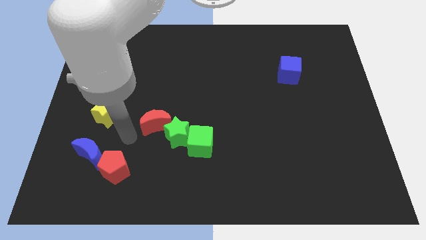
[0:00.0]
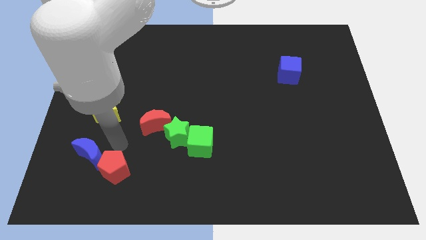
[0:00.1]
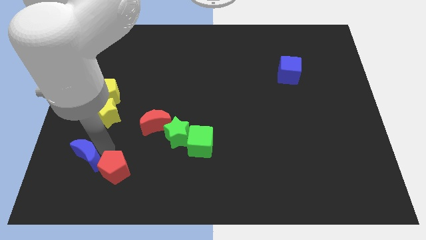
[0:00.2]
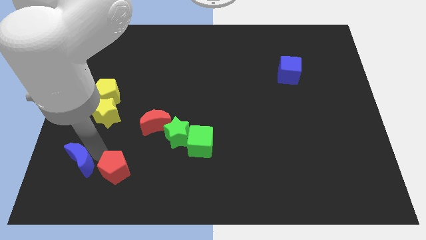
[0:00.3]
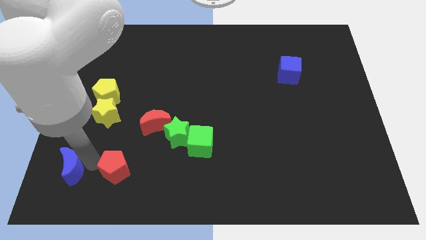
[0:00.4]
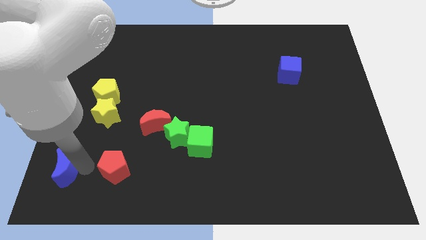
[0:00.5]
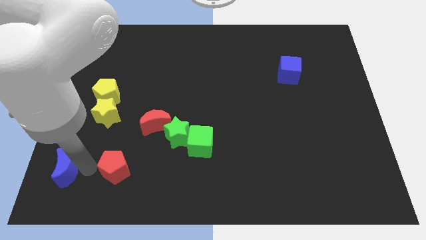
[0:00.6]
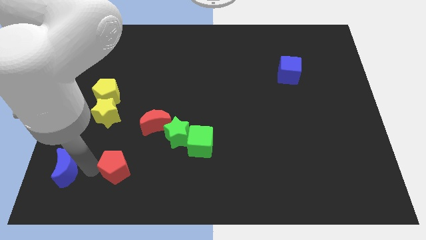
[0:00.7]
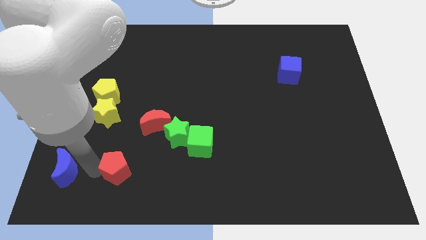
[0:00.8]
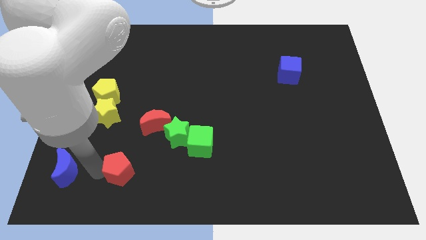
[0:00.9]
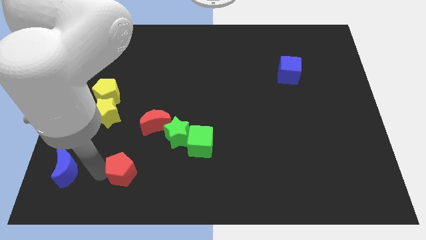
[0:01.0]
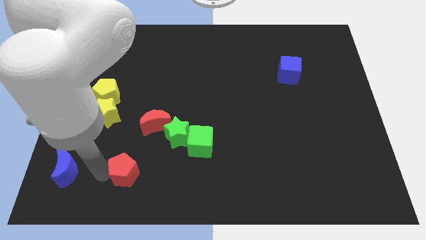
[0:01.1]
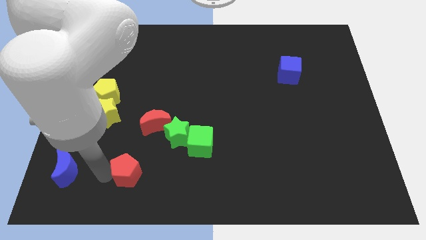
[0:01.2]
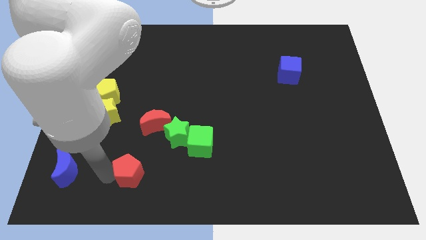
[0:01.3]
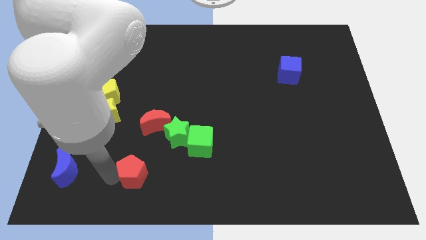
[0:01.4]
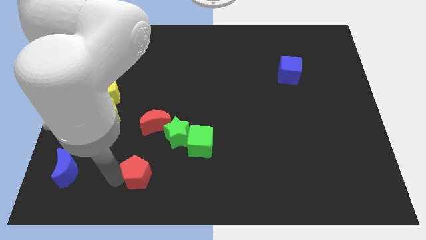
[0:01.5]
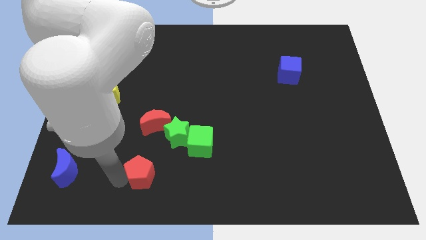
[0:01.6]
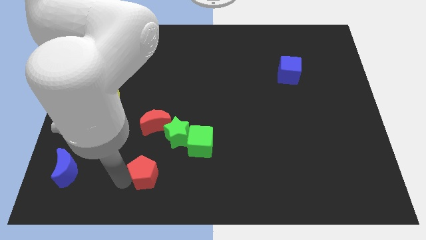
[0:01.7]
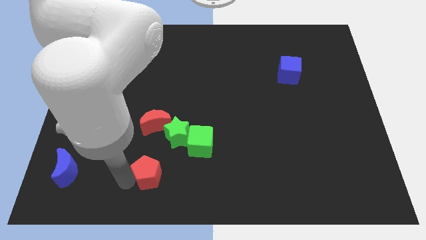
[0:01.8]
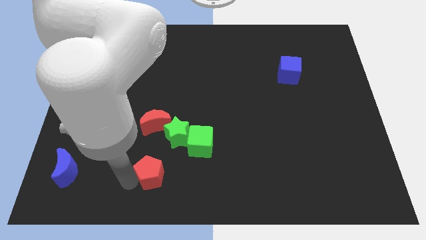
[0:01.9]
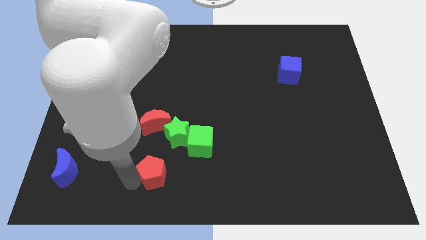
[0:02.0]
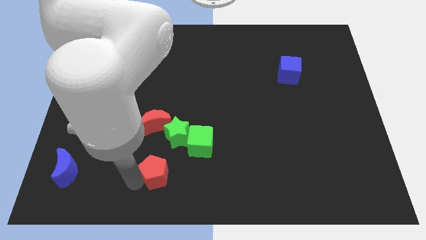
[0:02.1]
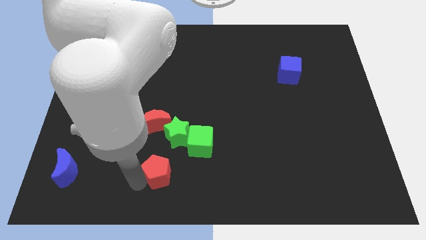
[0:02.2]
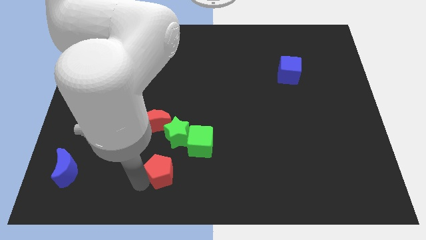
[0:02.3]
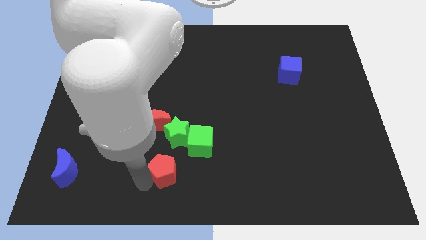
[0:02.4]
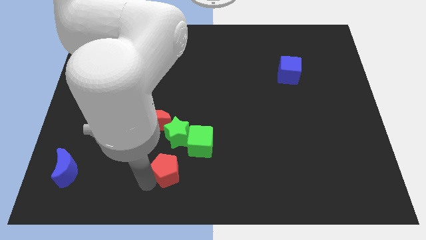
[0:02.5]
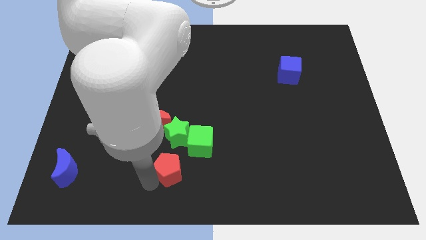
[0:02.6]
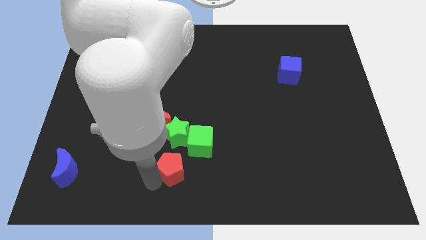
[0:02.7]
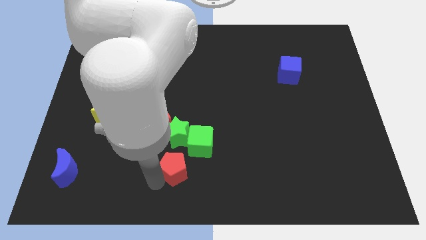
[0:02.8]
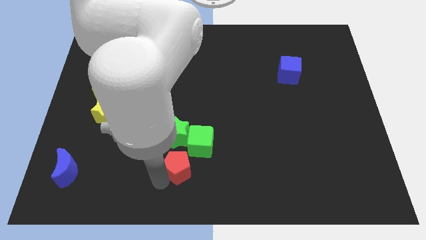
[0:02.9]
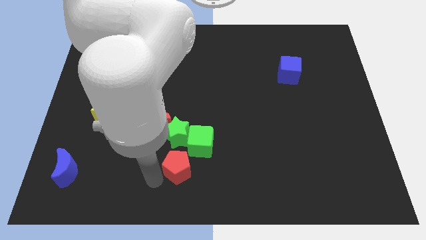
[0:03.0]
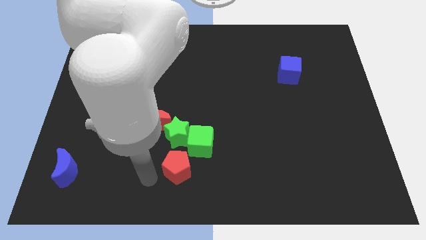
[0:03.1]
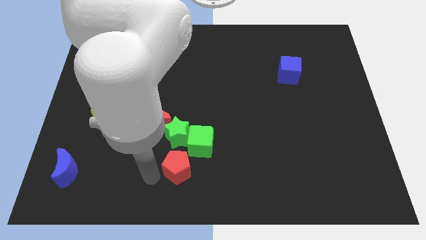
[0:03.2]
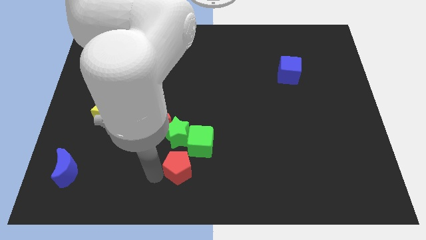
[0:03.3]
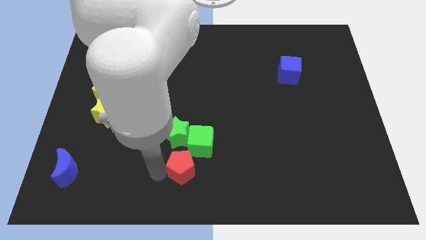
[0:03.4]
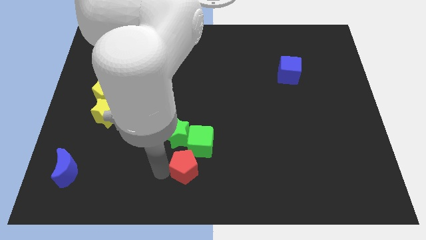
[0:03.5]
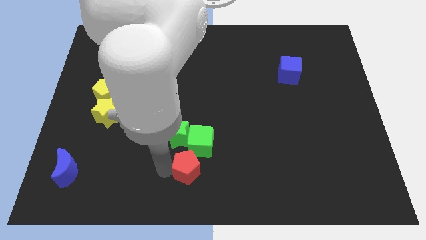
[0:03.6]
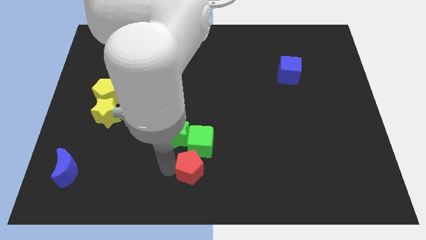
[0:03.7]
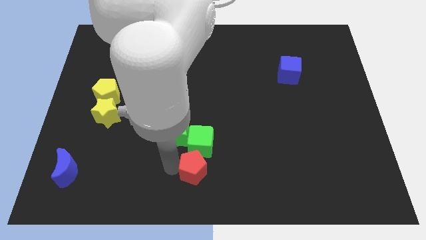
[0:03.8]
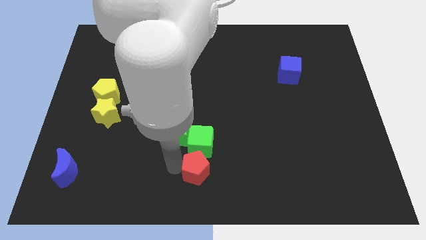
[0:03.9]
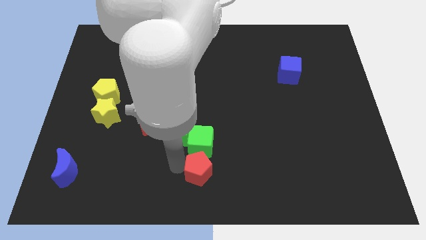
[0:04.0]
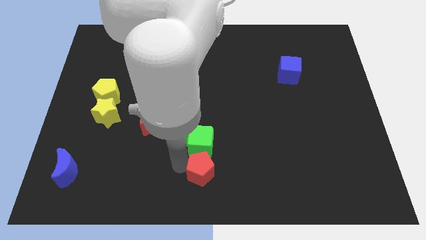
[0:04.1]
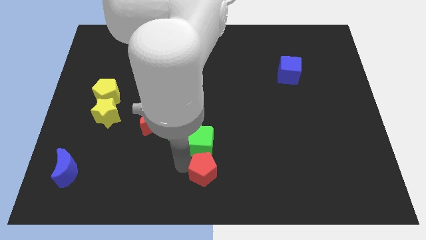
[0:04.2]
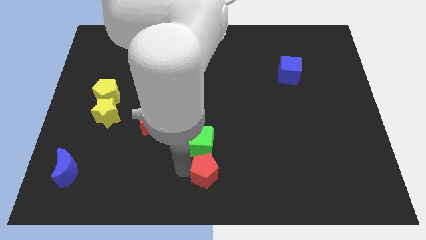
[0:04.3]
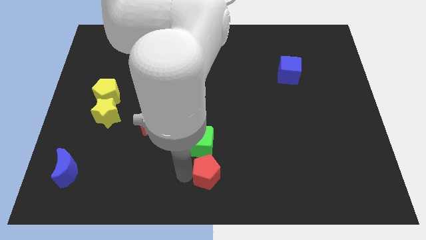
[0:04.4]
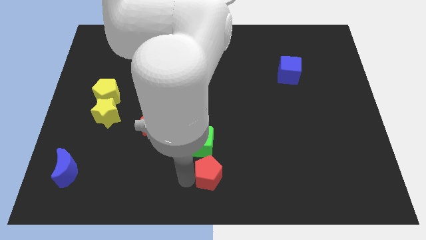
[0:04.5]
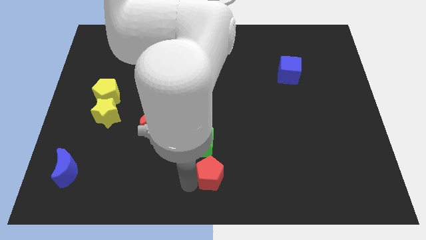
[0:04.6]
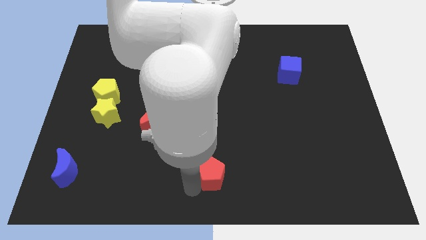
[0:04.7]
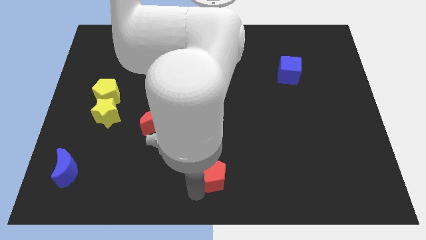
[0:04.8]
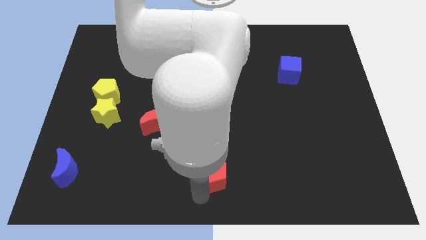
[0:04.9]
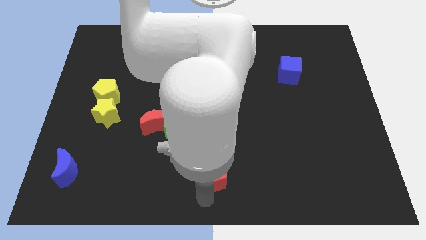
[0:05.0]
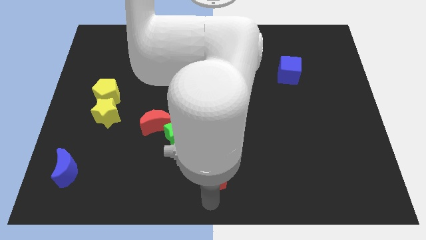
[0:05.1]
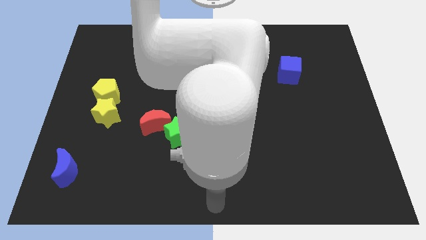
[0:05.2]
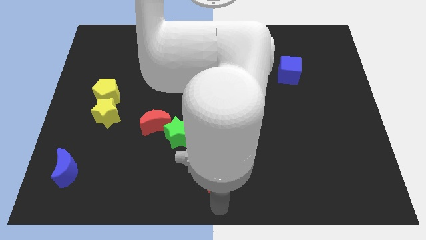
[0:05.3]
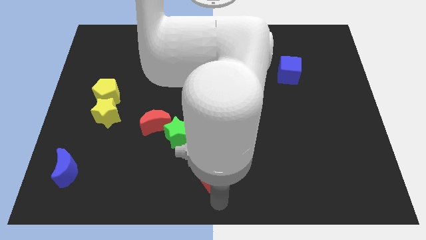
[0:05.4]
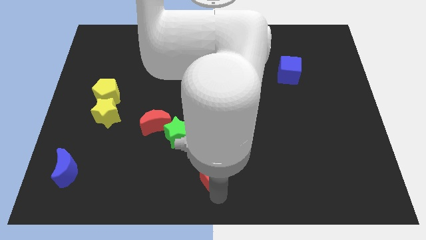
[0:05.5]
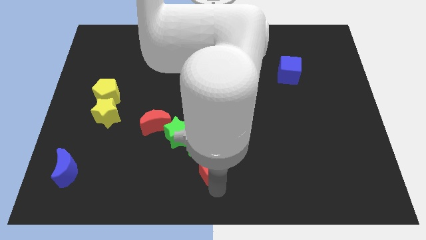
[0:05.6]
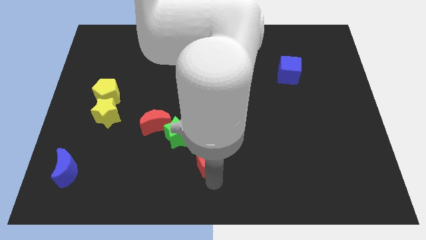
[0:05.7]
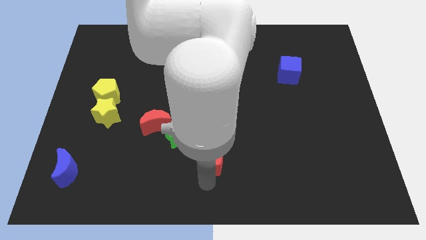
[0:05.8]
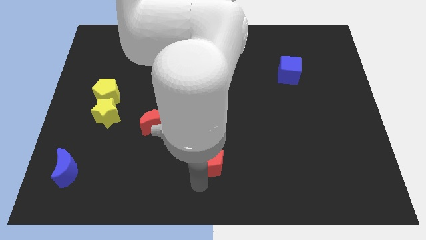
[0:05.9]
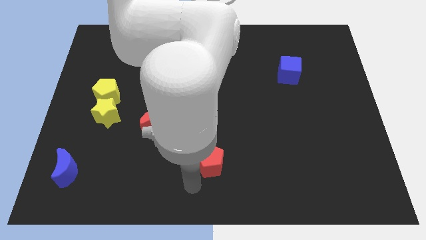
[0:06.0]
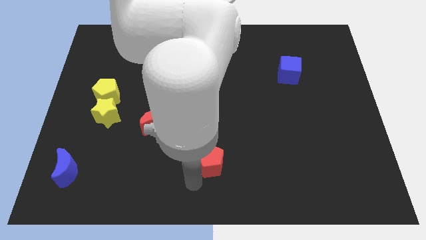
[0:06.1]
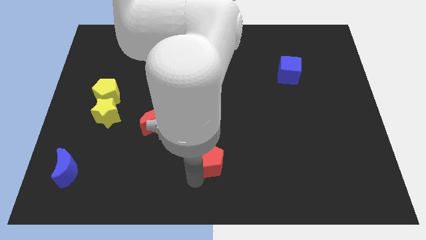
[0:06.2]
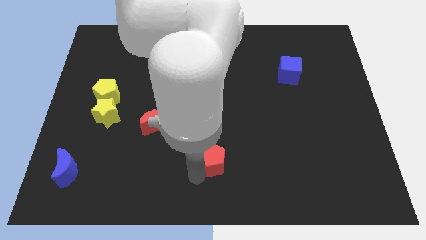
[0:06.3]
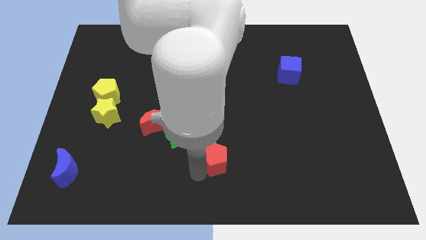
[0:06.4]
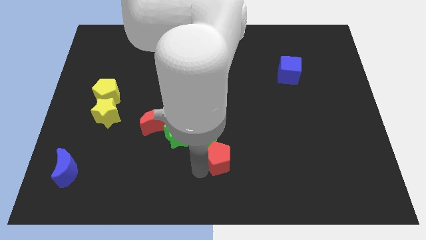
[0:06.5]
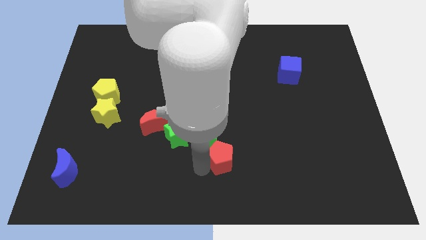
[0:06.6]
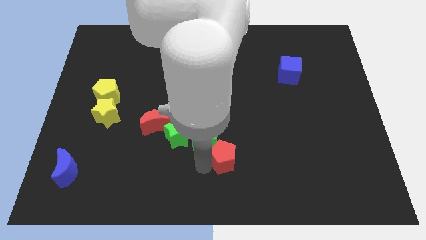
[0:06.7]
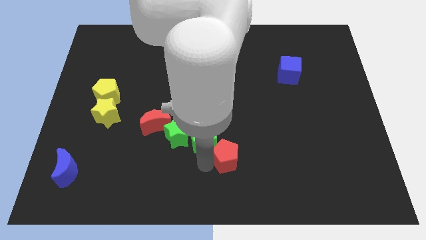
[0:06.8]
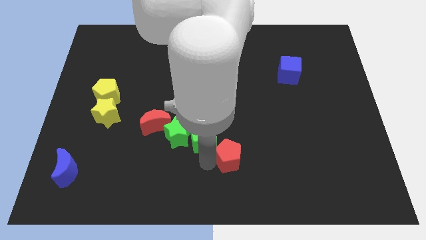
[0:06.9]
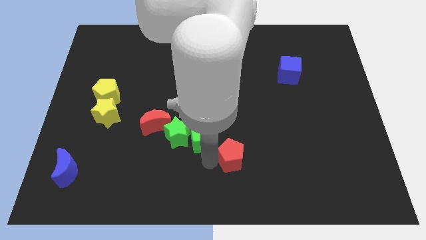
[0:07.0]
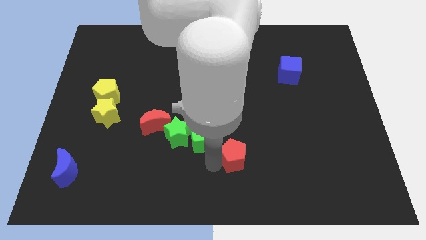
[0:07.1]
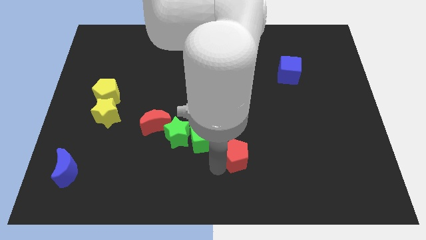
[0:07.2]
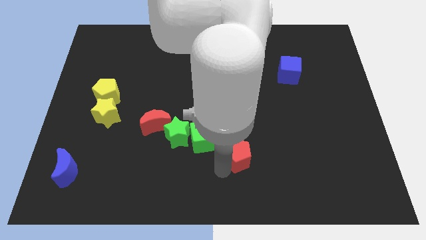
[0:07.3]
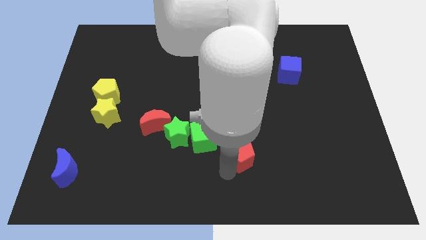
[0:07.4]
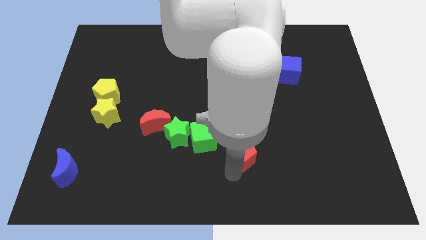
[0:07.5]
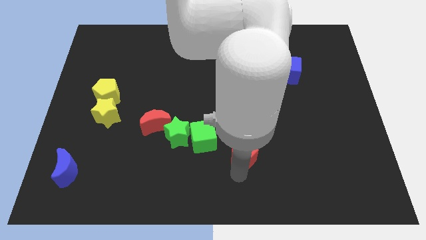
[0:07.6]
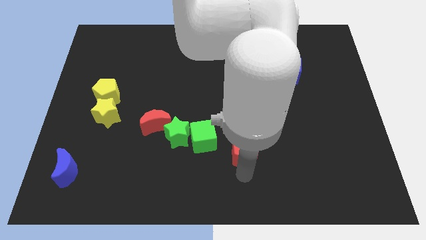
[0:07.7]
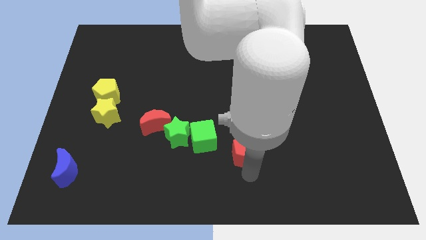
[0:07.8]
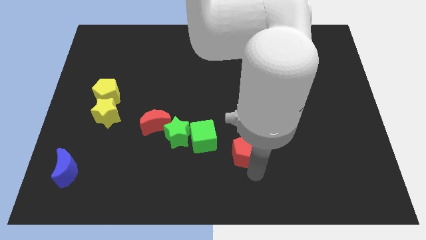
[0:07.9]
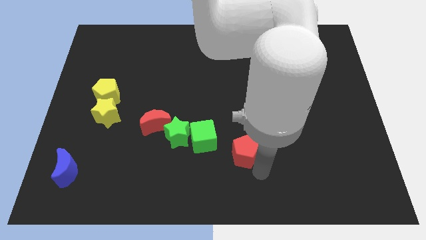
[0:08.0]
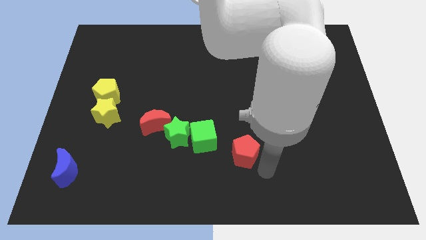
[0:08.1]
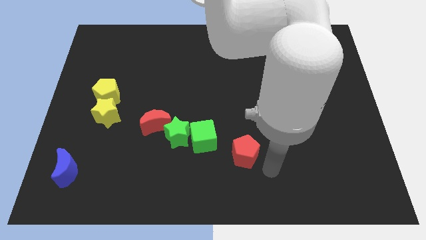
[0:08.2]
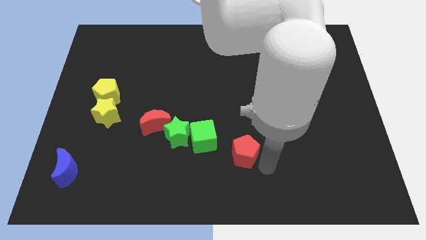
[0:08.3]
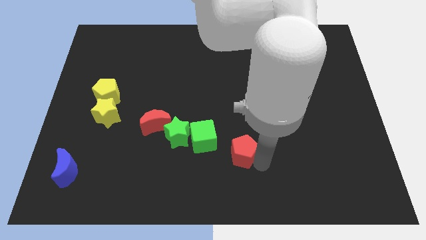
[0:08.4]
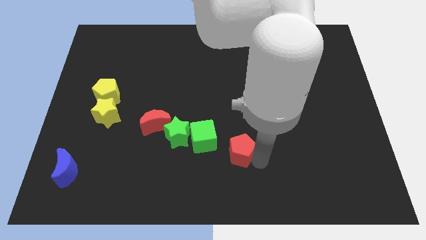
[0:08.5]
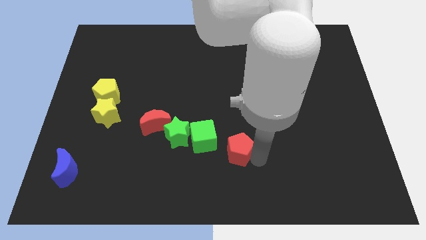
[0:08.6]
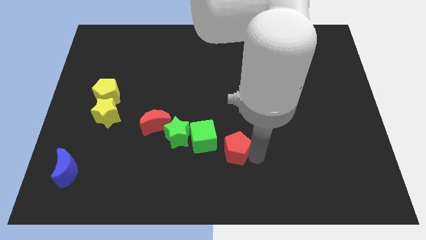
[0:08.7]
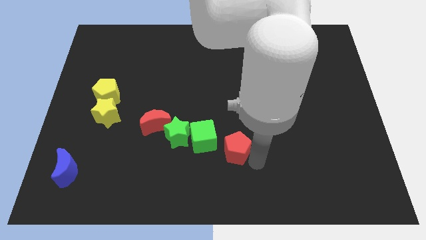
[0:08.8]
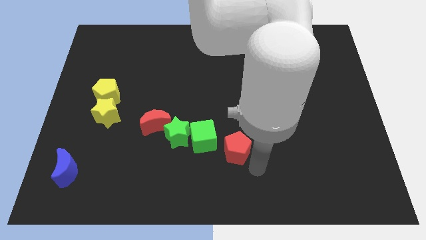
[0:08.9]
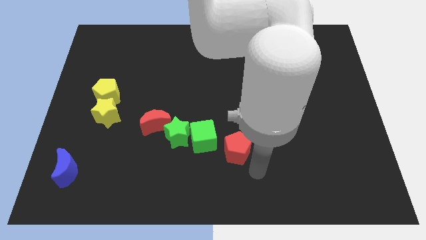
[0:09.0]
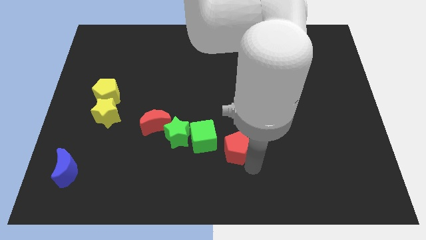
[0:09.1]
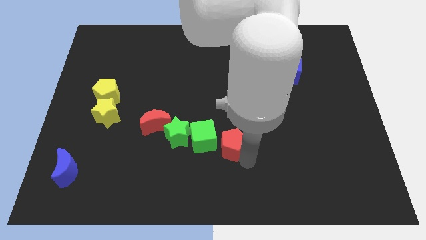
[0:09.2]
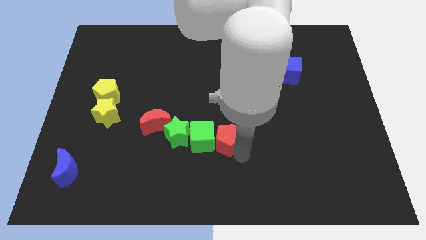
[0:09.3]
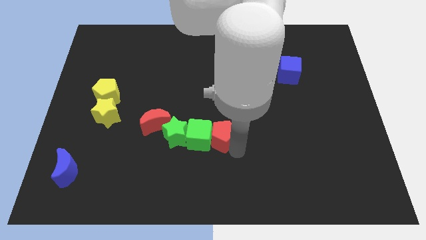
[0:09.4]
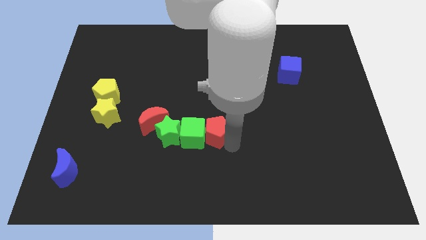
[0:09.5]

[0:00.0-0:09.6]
slide the red pentagon right of the red moon
